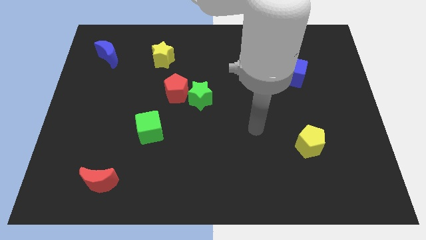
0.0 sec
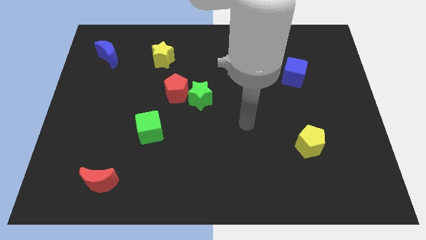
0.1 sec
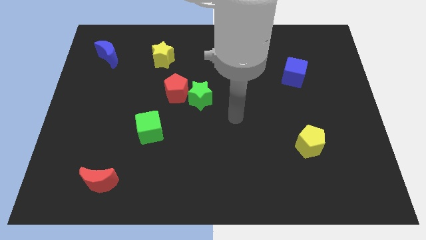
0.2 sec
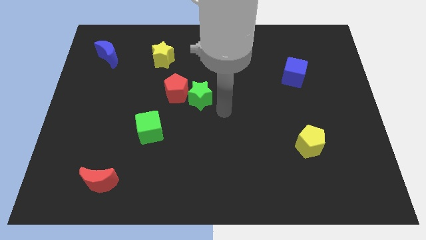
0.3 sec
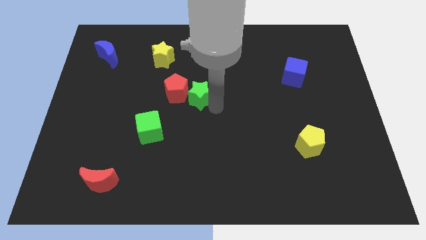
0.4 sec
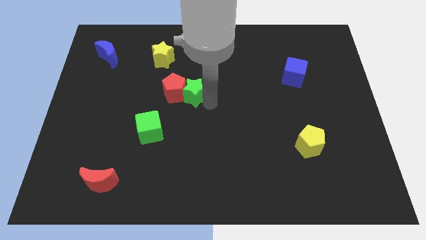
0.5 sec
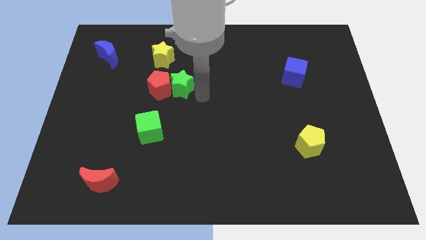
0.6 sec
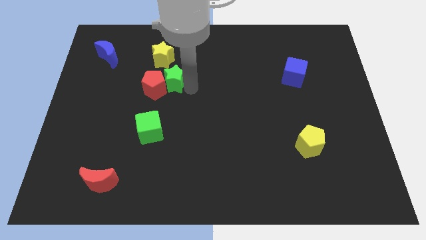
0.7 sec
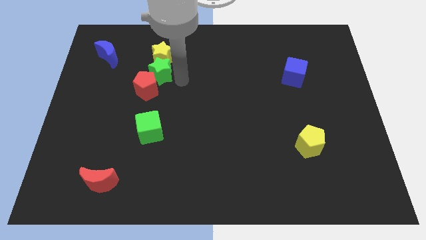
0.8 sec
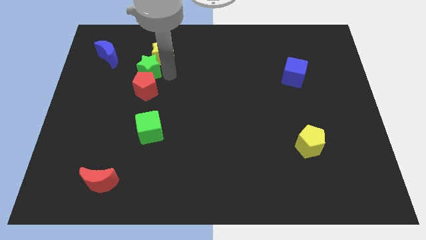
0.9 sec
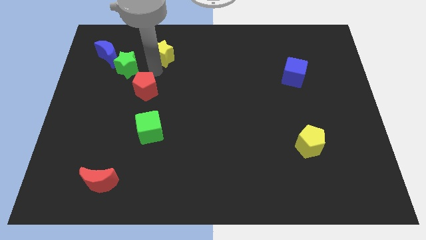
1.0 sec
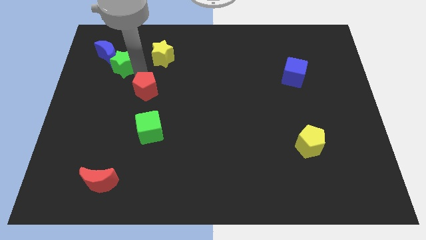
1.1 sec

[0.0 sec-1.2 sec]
pull the red pentagon apart from the green star

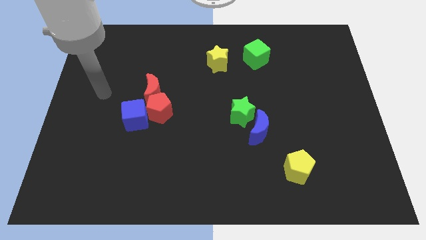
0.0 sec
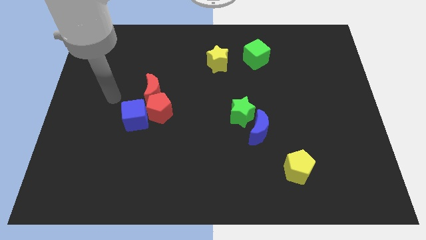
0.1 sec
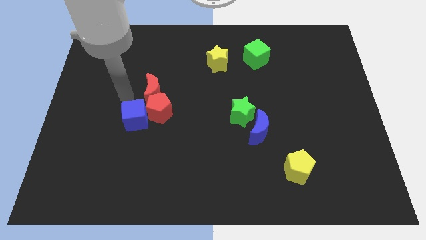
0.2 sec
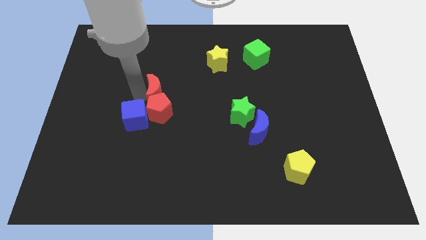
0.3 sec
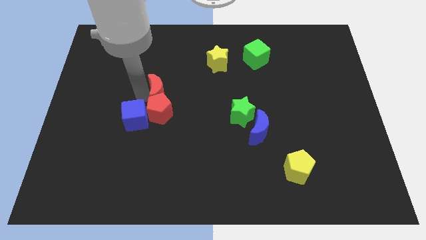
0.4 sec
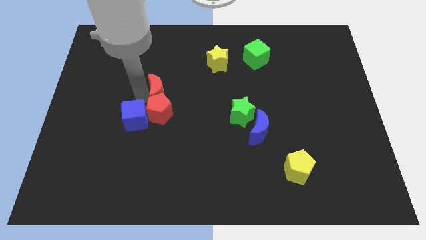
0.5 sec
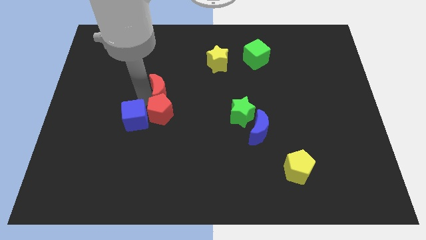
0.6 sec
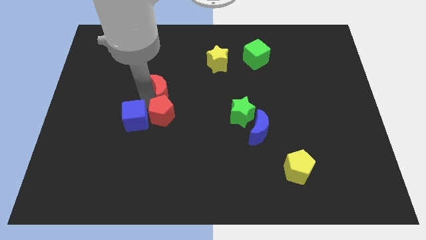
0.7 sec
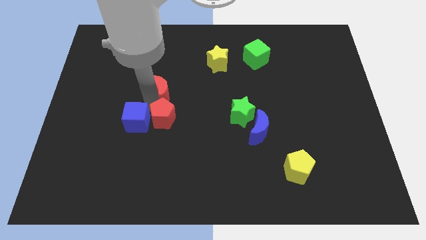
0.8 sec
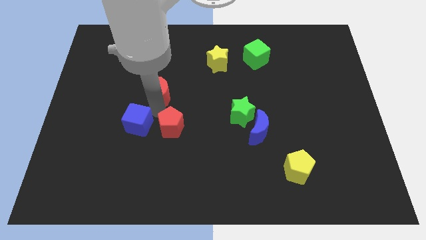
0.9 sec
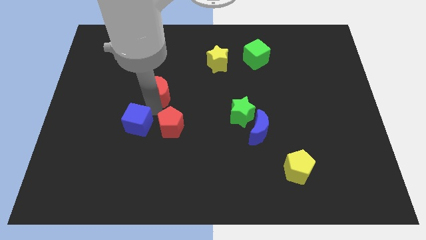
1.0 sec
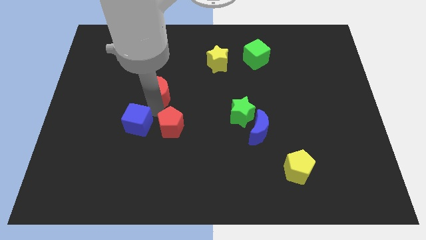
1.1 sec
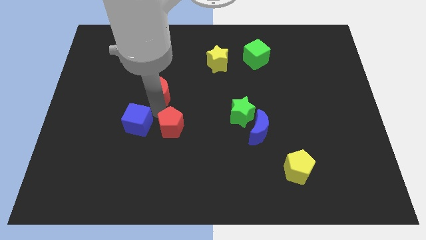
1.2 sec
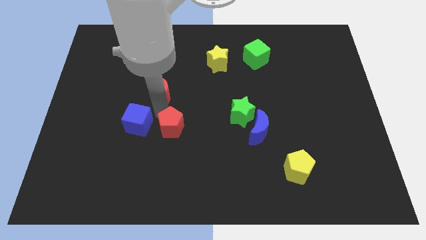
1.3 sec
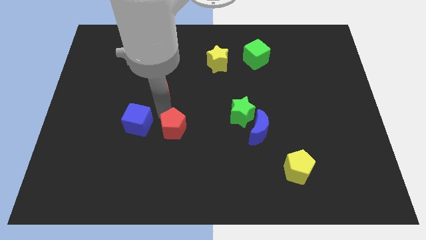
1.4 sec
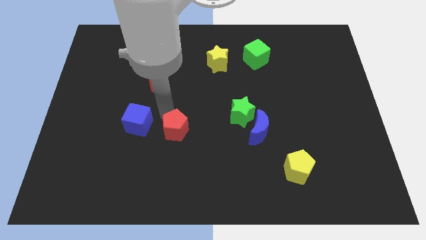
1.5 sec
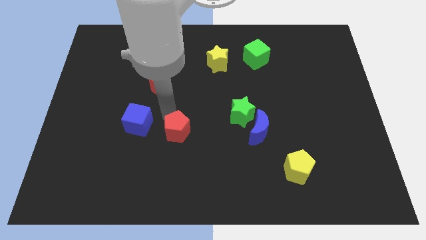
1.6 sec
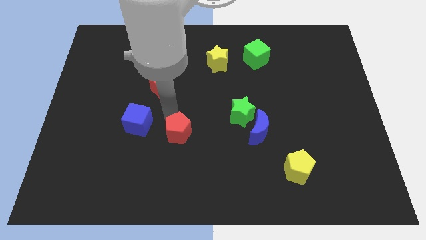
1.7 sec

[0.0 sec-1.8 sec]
move the red pentagon away from the blue cube and red moon

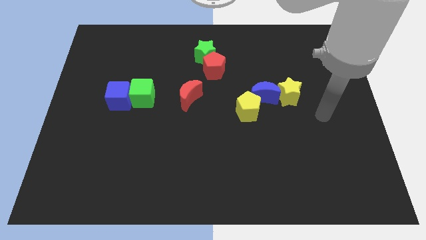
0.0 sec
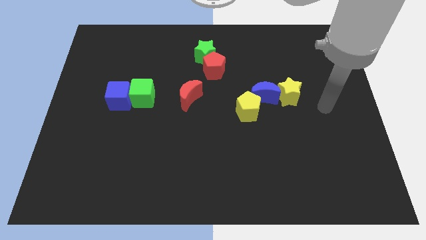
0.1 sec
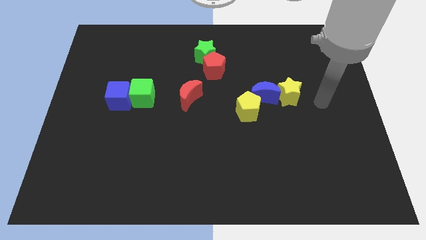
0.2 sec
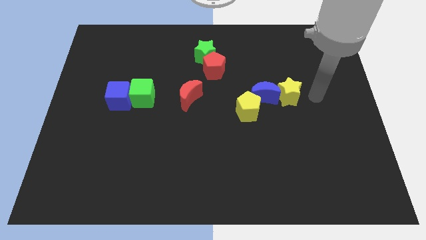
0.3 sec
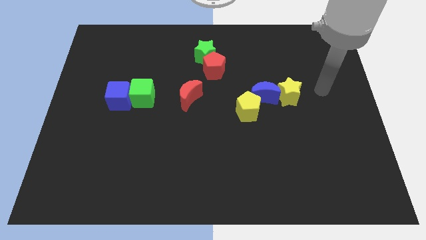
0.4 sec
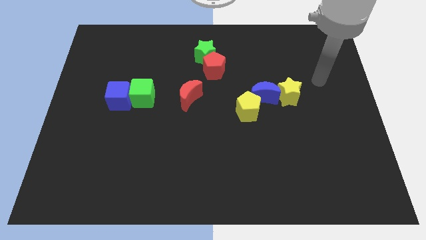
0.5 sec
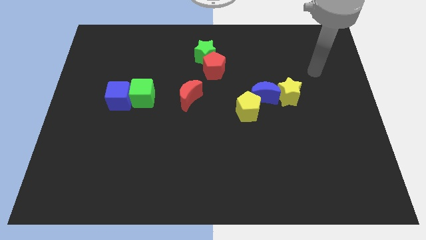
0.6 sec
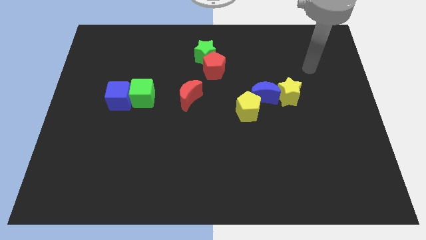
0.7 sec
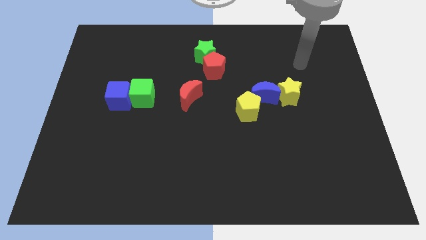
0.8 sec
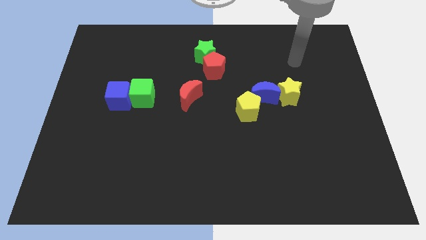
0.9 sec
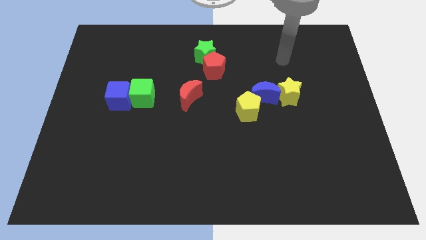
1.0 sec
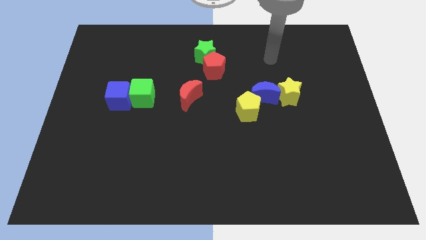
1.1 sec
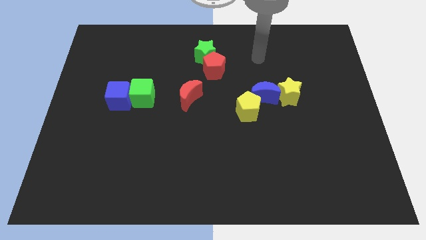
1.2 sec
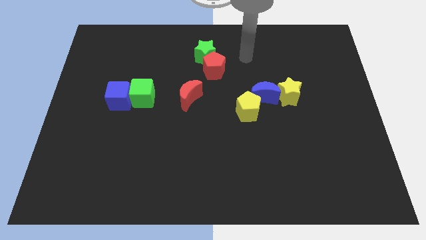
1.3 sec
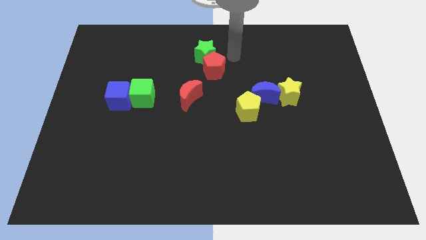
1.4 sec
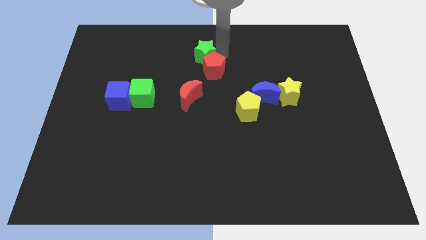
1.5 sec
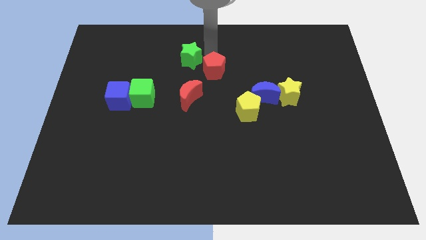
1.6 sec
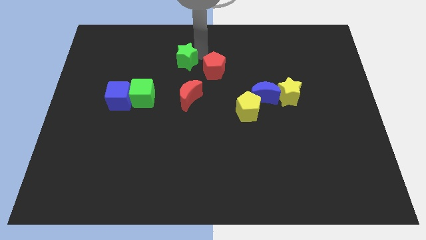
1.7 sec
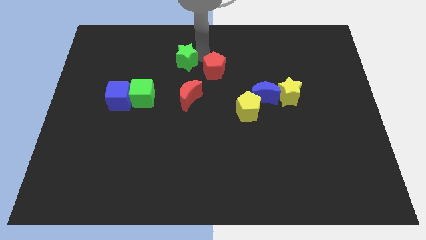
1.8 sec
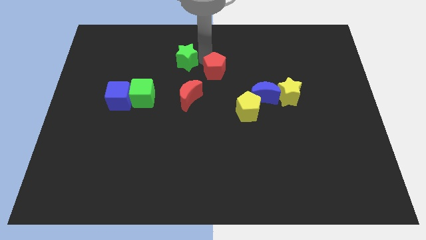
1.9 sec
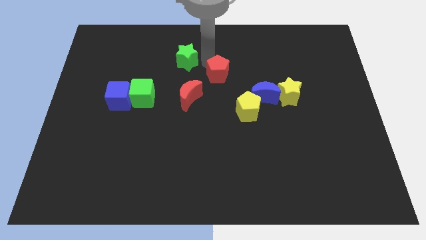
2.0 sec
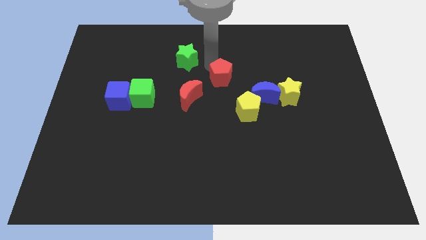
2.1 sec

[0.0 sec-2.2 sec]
separate the red pentagon from the green star

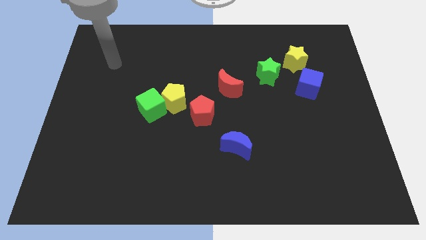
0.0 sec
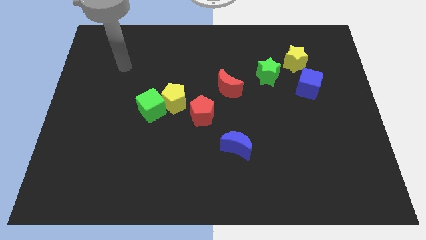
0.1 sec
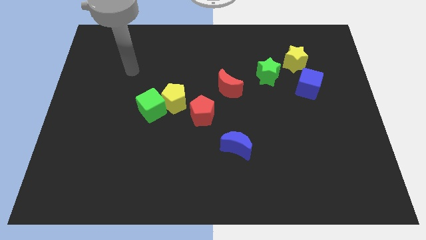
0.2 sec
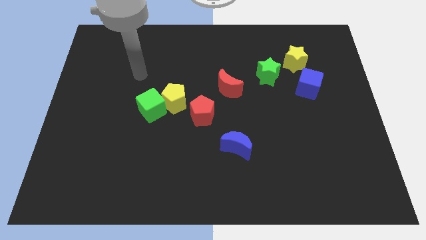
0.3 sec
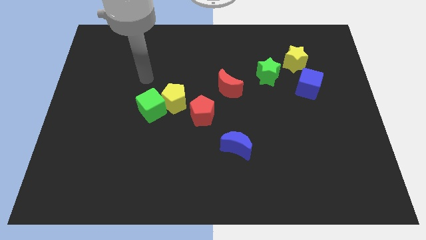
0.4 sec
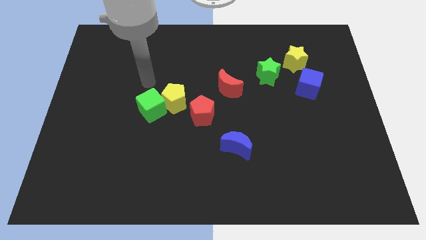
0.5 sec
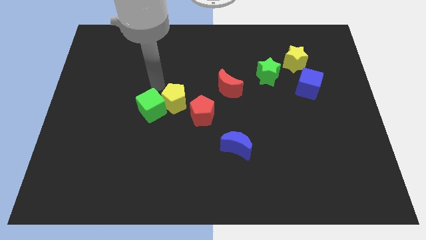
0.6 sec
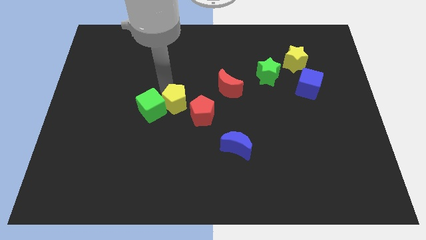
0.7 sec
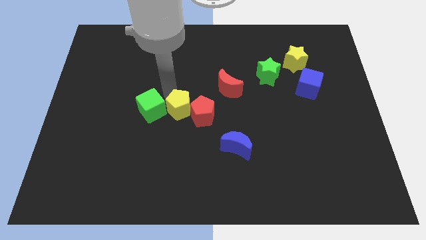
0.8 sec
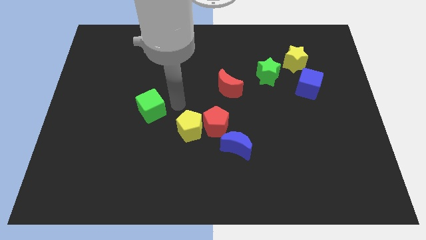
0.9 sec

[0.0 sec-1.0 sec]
move the green cube away from the yellow pentagon

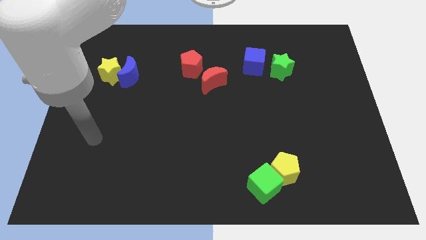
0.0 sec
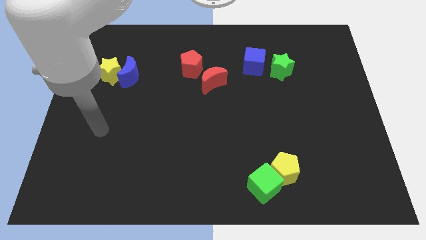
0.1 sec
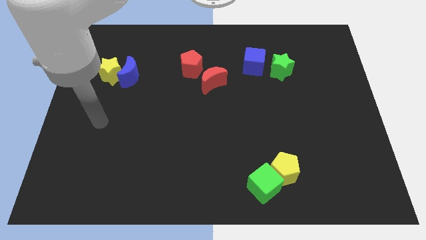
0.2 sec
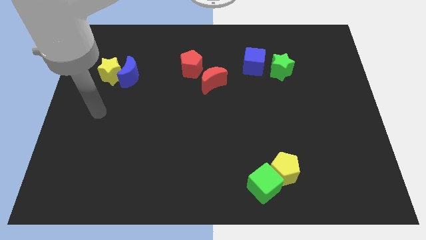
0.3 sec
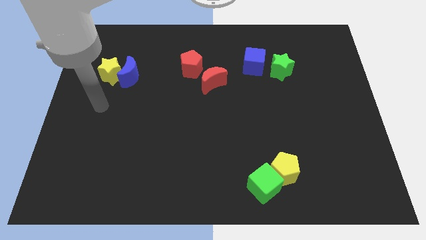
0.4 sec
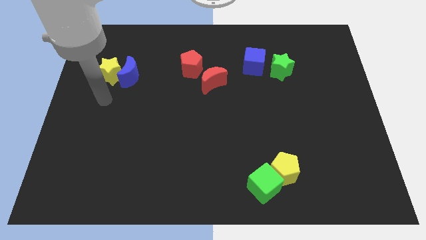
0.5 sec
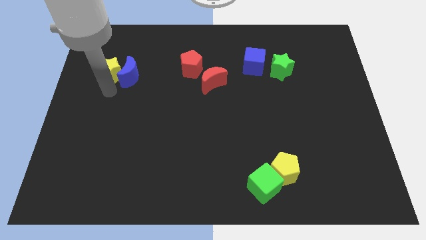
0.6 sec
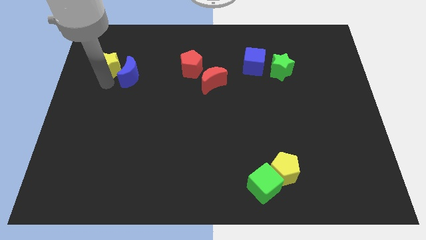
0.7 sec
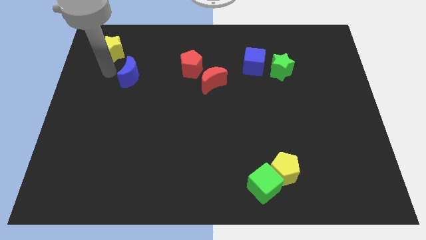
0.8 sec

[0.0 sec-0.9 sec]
separate the blue moon from the yellow star

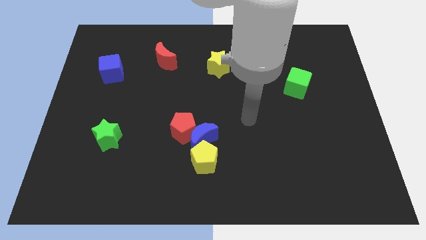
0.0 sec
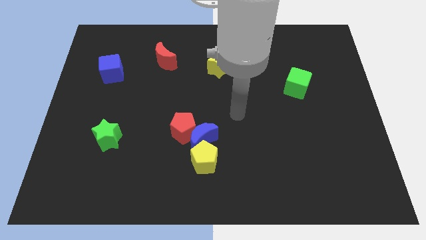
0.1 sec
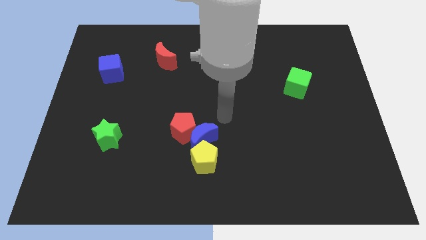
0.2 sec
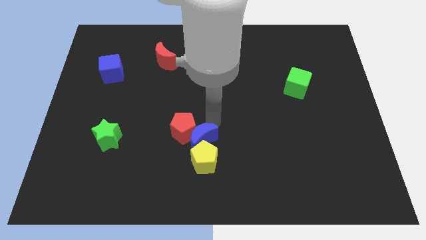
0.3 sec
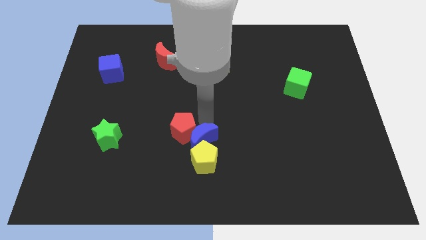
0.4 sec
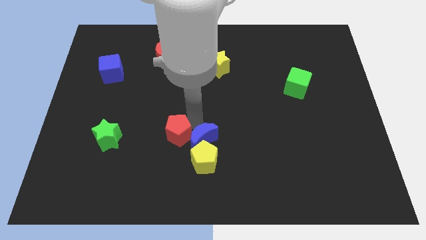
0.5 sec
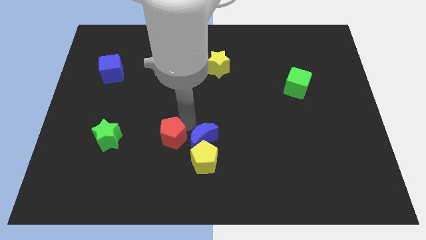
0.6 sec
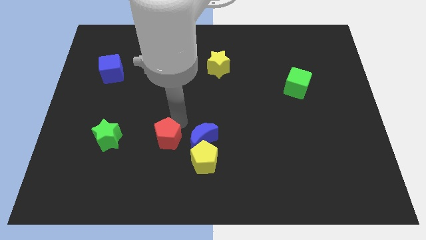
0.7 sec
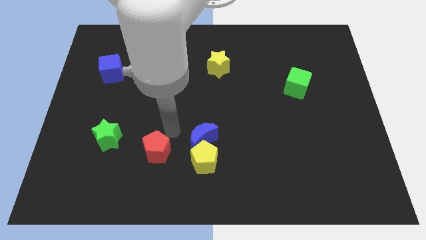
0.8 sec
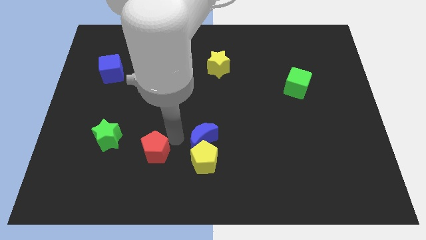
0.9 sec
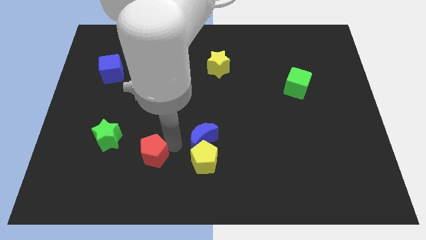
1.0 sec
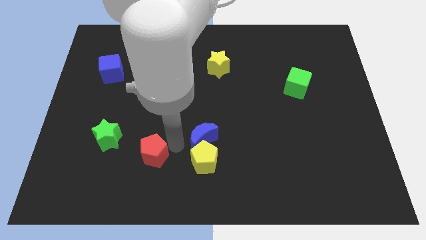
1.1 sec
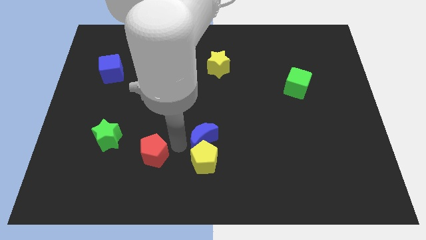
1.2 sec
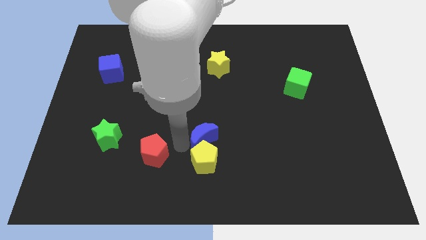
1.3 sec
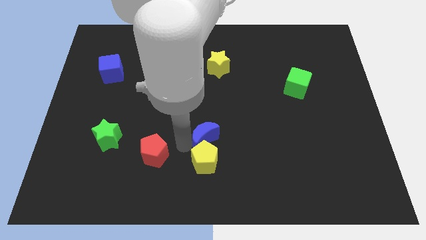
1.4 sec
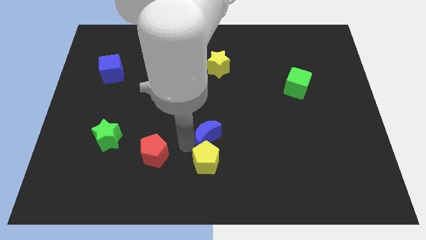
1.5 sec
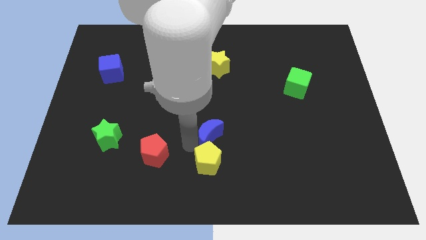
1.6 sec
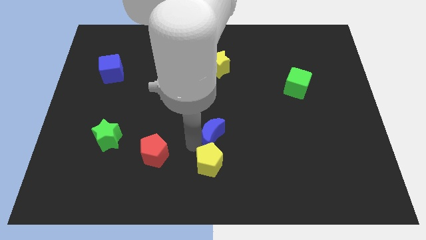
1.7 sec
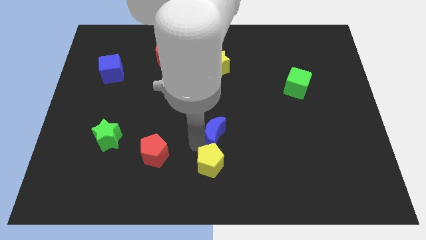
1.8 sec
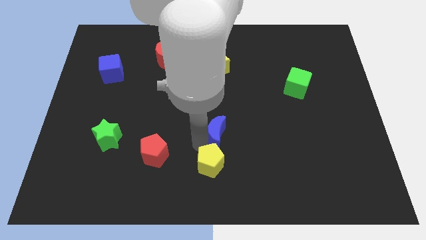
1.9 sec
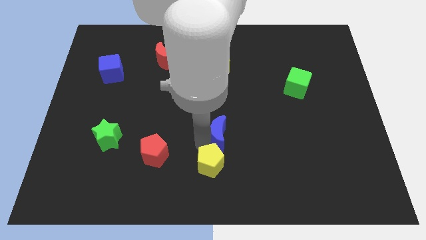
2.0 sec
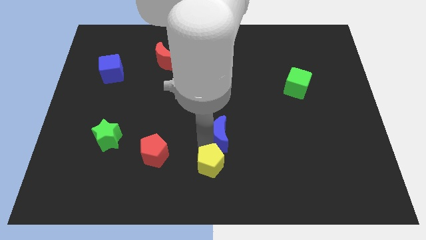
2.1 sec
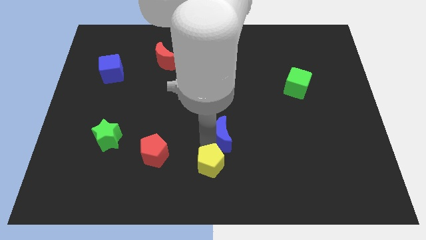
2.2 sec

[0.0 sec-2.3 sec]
pull the blue moon apart from the red pentagon and yellow pentagon
